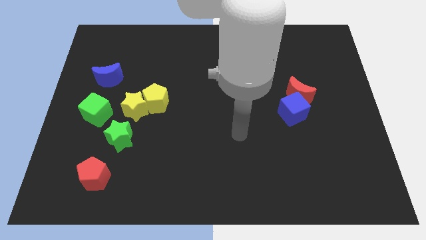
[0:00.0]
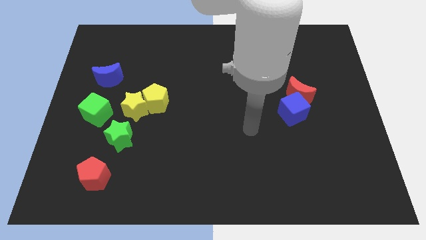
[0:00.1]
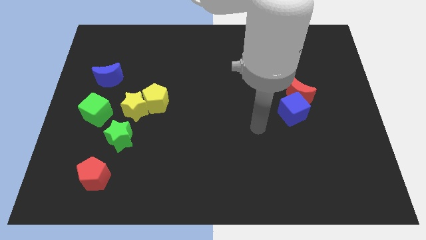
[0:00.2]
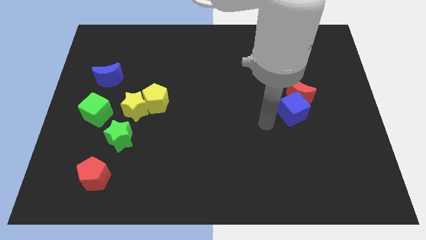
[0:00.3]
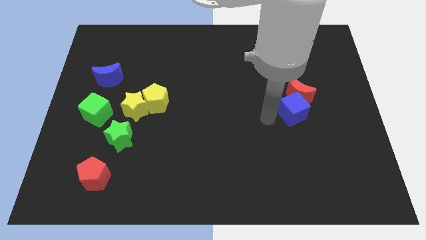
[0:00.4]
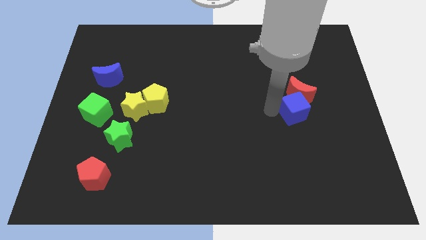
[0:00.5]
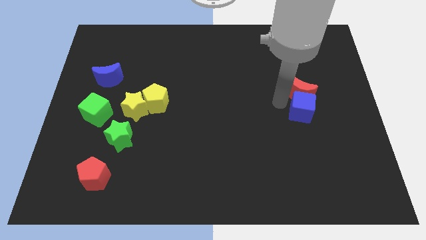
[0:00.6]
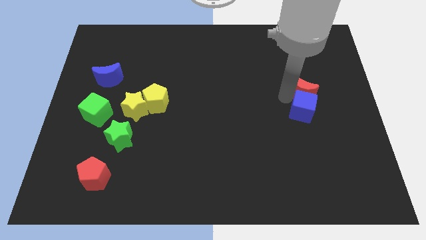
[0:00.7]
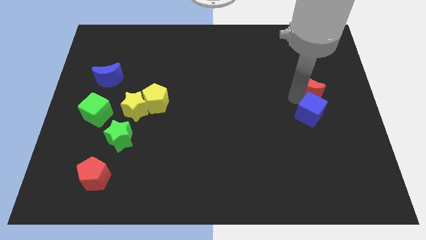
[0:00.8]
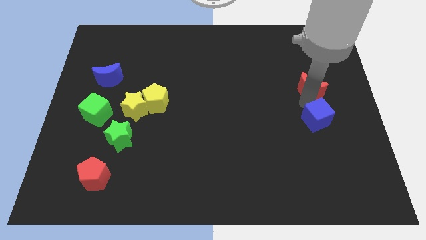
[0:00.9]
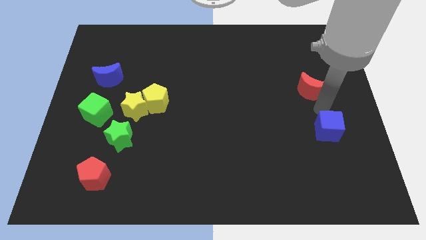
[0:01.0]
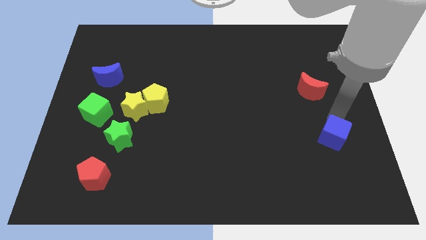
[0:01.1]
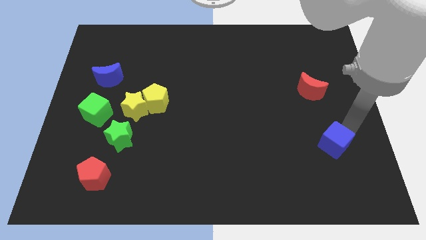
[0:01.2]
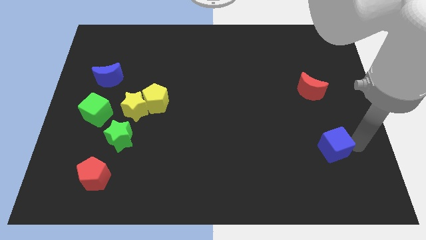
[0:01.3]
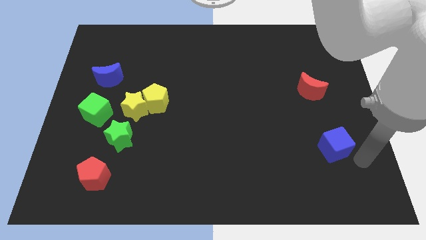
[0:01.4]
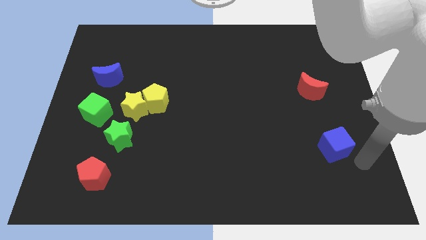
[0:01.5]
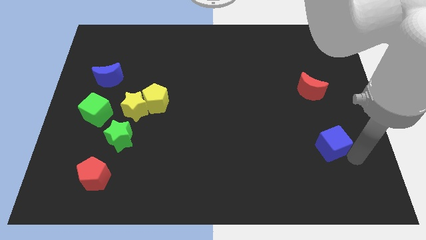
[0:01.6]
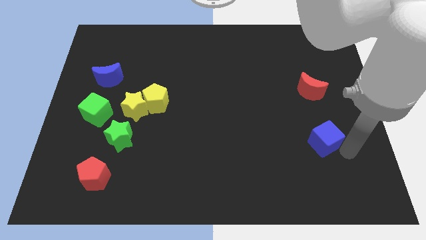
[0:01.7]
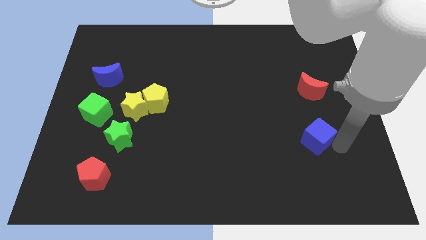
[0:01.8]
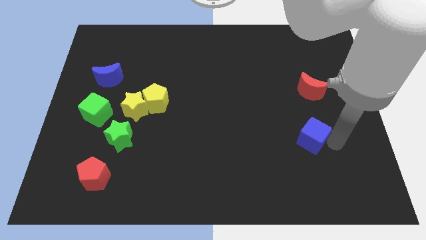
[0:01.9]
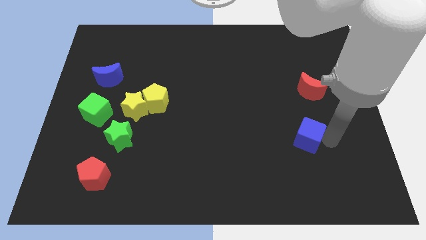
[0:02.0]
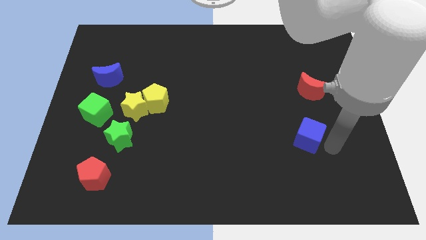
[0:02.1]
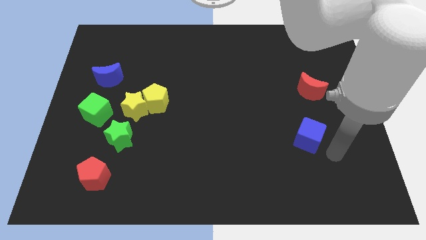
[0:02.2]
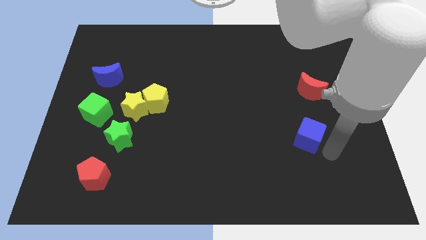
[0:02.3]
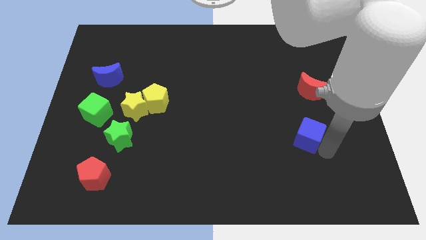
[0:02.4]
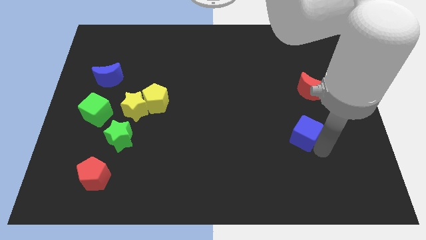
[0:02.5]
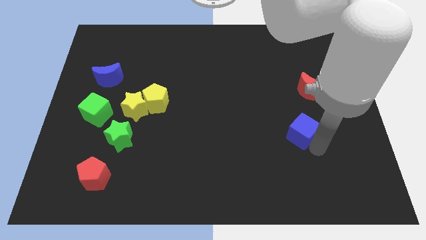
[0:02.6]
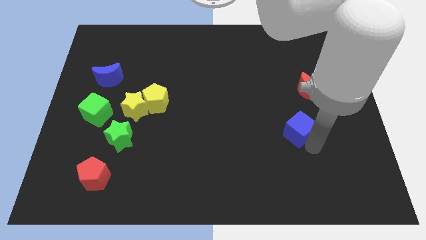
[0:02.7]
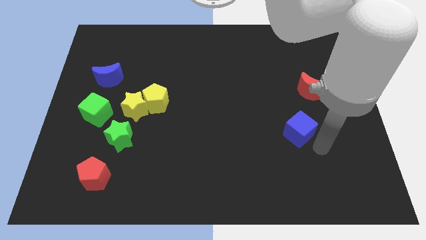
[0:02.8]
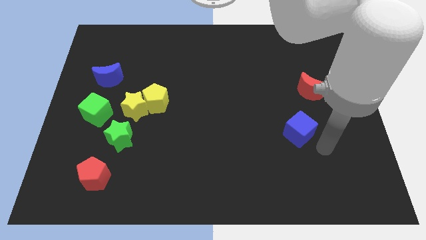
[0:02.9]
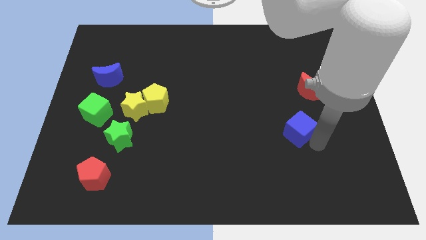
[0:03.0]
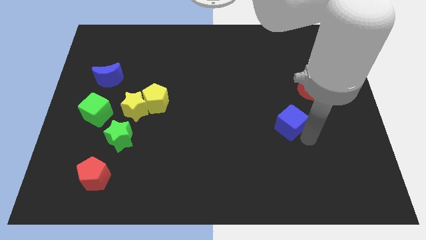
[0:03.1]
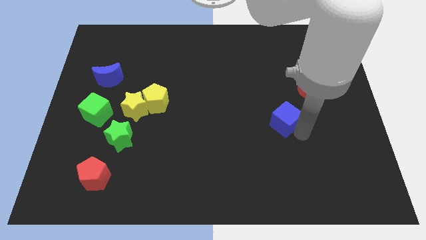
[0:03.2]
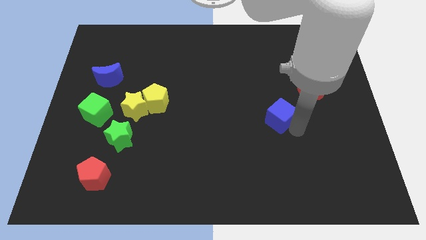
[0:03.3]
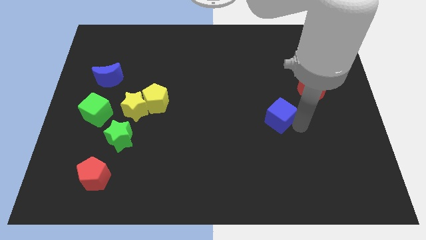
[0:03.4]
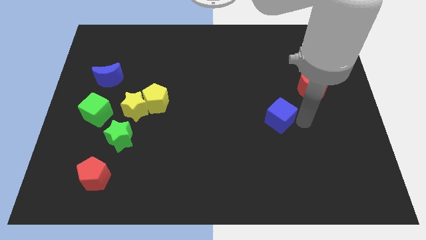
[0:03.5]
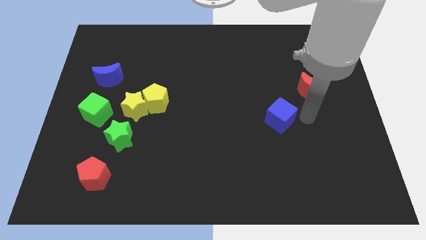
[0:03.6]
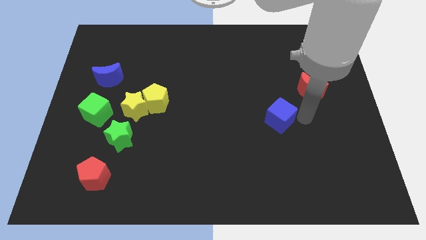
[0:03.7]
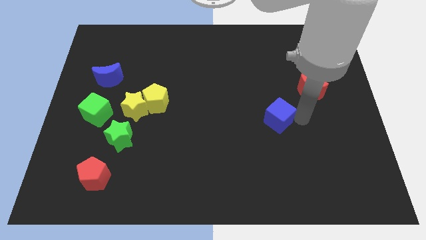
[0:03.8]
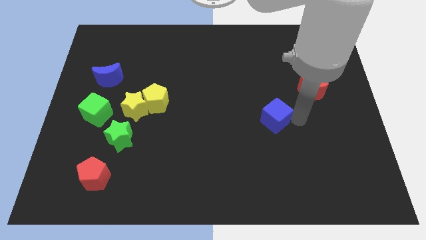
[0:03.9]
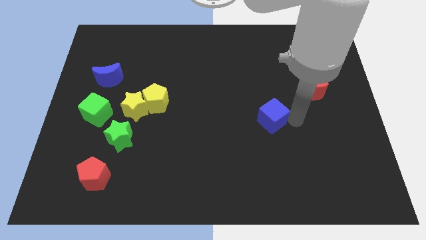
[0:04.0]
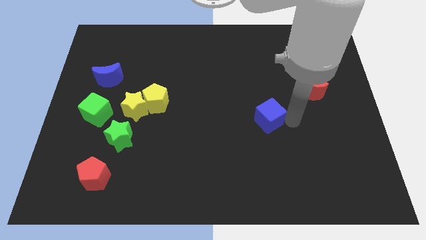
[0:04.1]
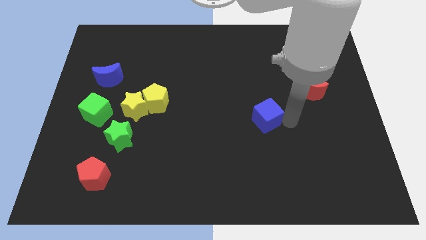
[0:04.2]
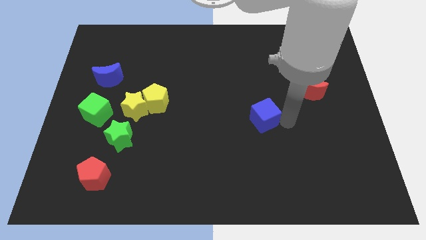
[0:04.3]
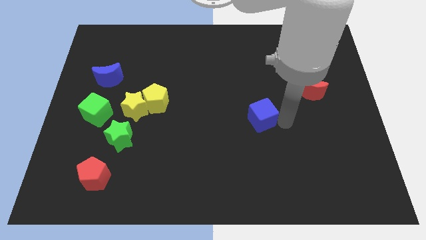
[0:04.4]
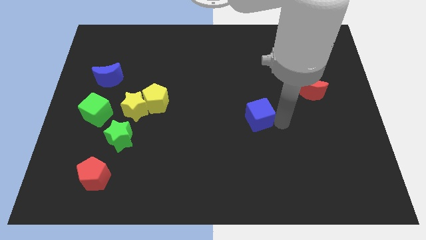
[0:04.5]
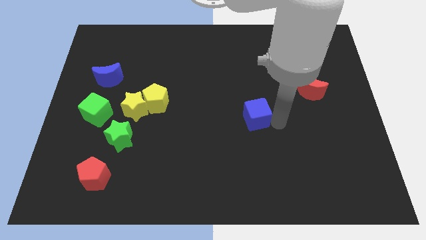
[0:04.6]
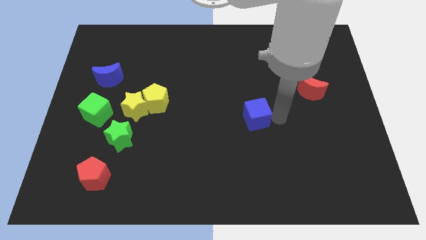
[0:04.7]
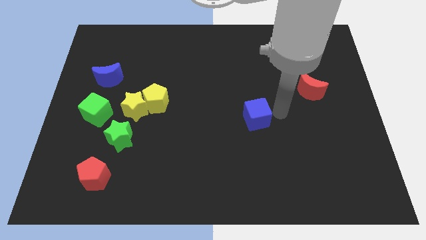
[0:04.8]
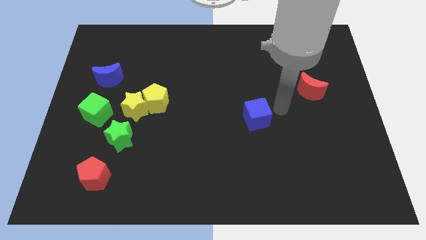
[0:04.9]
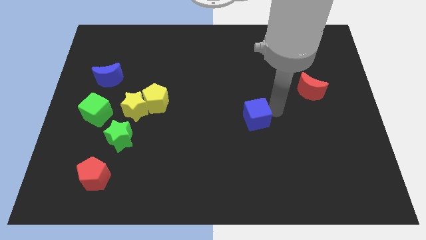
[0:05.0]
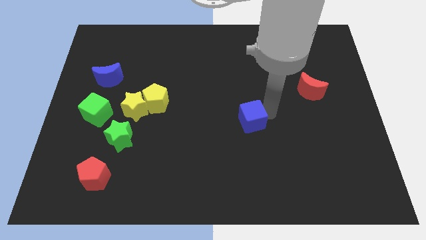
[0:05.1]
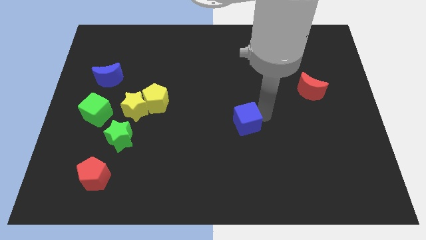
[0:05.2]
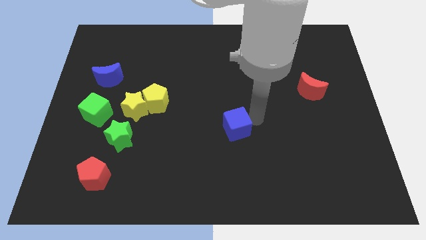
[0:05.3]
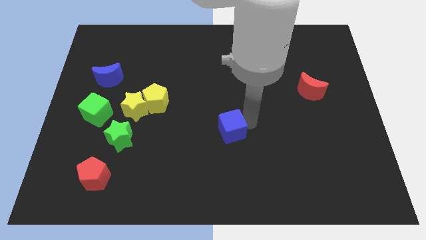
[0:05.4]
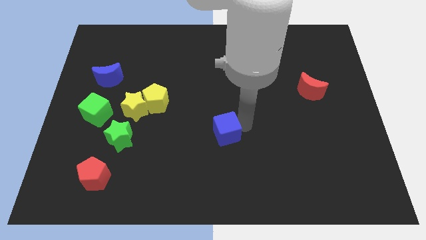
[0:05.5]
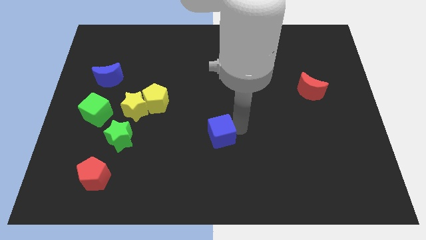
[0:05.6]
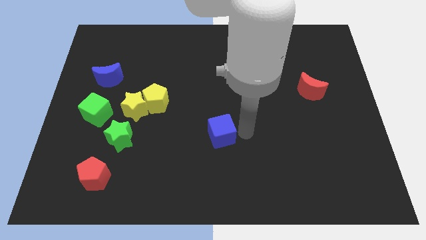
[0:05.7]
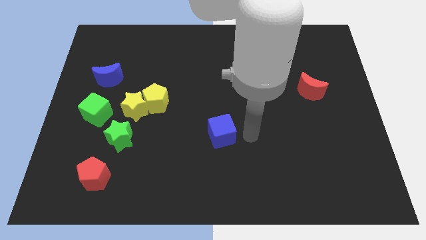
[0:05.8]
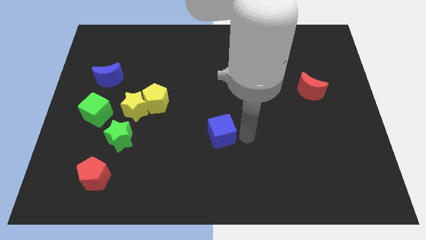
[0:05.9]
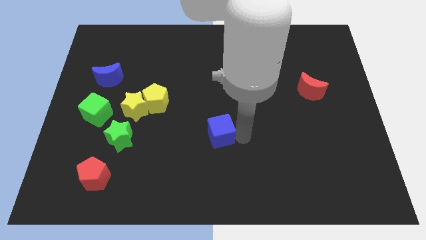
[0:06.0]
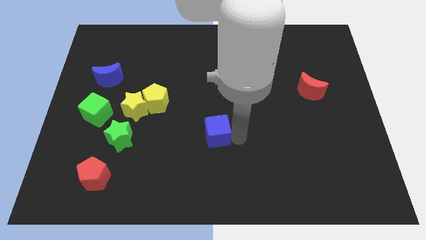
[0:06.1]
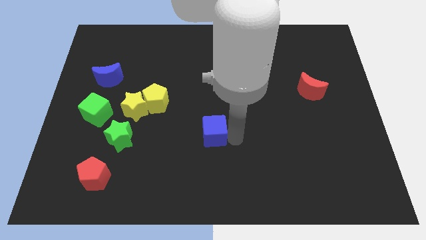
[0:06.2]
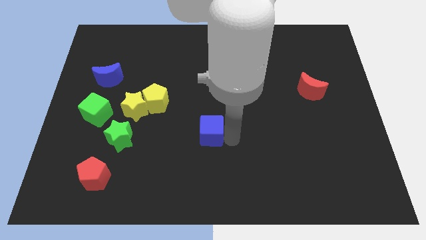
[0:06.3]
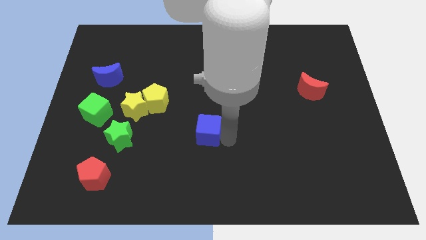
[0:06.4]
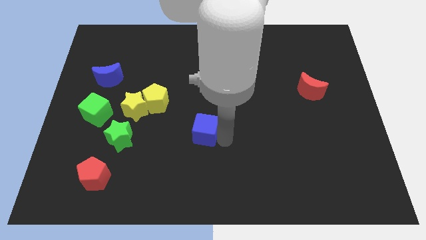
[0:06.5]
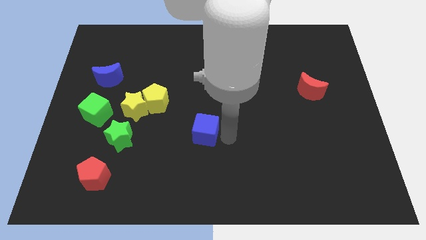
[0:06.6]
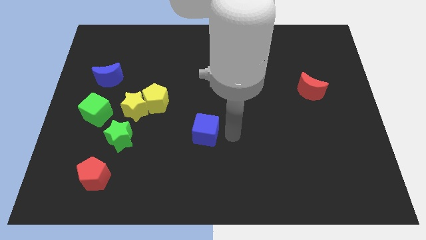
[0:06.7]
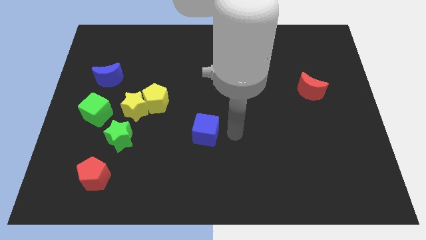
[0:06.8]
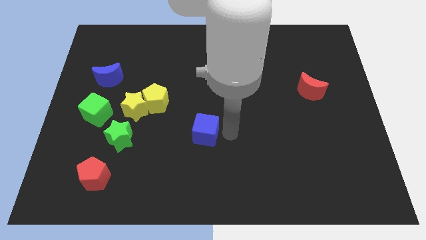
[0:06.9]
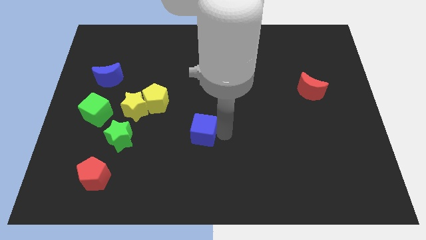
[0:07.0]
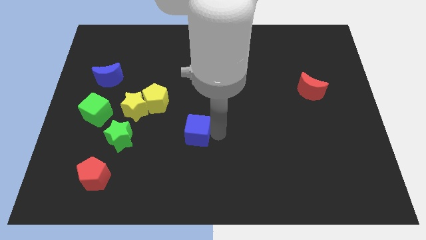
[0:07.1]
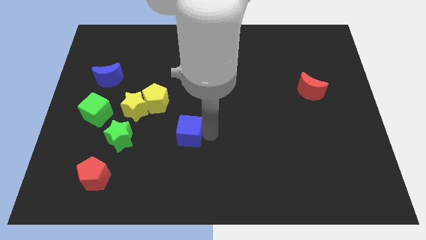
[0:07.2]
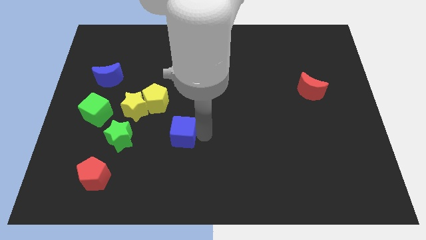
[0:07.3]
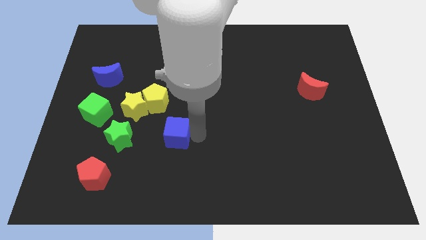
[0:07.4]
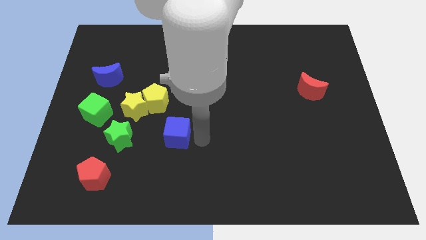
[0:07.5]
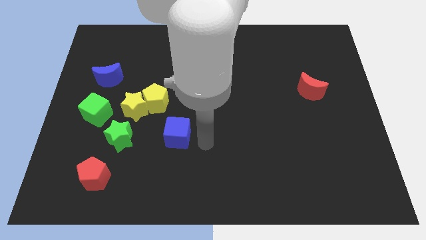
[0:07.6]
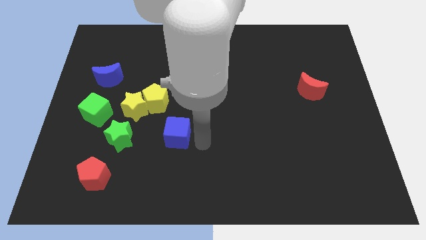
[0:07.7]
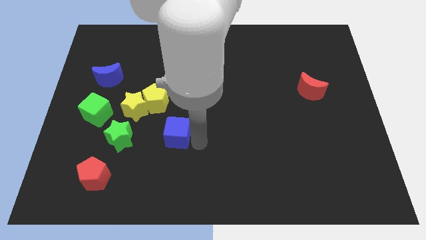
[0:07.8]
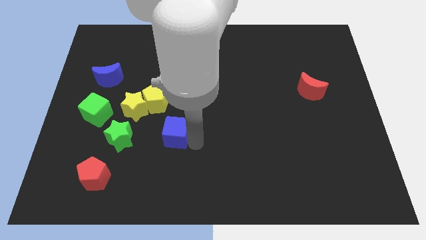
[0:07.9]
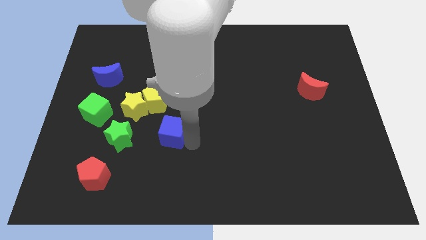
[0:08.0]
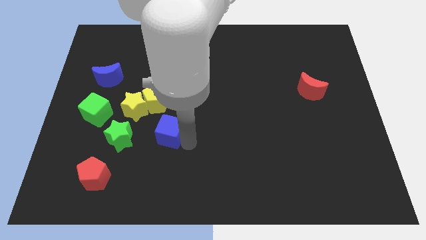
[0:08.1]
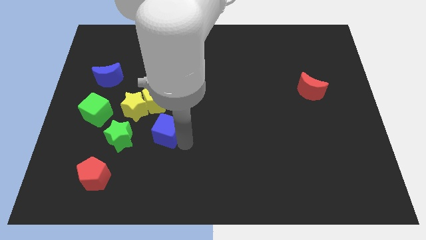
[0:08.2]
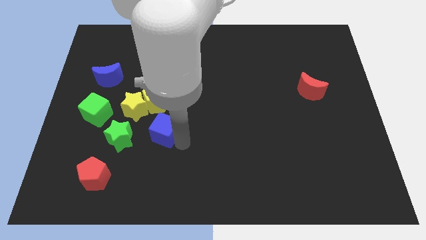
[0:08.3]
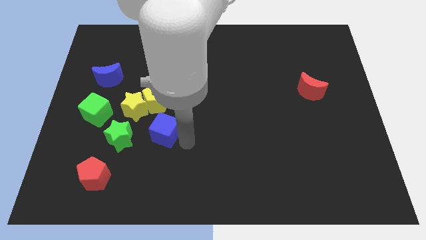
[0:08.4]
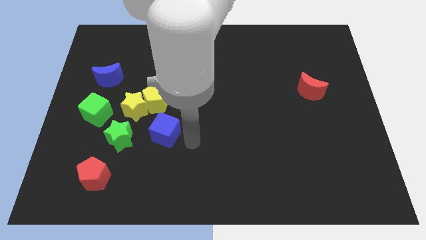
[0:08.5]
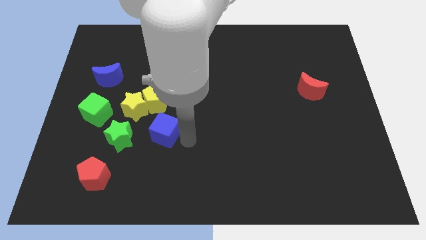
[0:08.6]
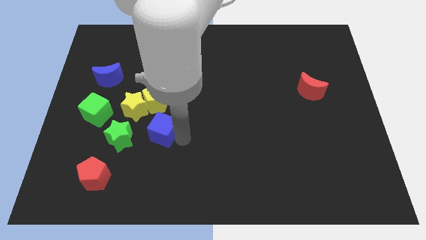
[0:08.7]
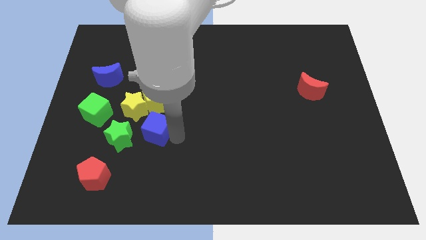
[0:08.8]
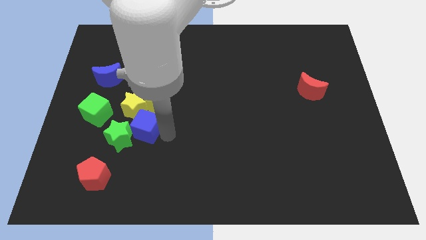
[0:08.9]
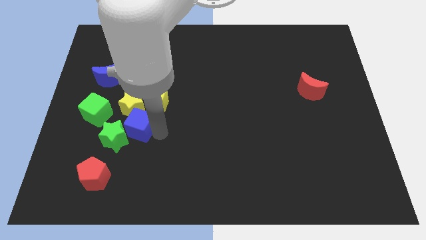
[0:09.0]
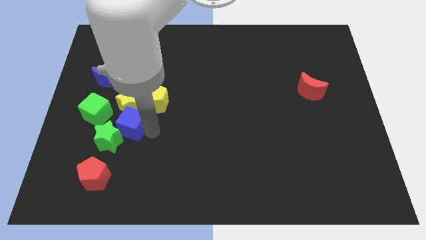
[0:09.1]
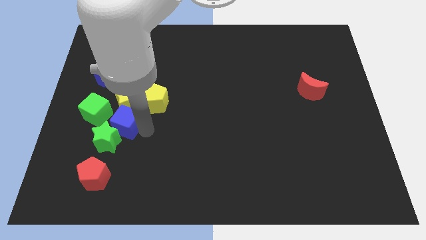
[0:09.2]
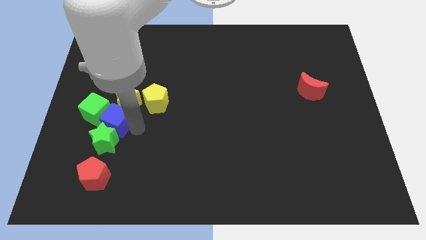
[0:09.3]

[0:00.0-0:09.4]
move the blue cube to the green cube
